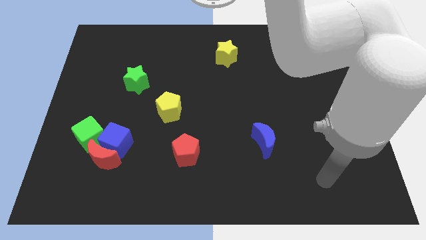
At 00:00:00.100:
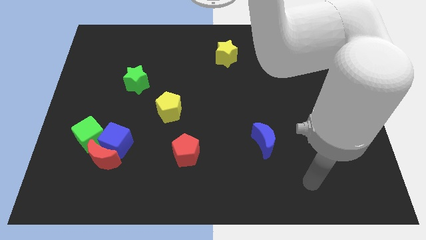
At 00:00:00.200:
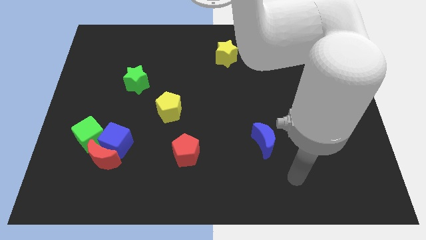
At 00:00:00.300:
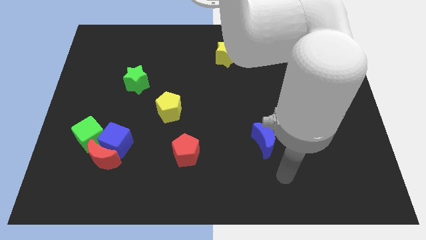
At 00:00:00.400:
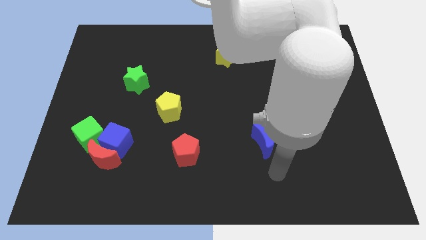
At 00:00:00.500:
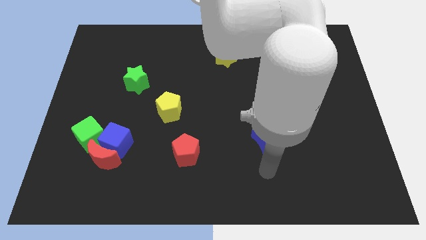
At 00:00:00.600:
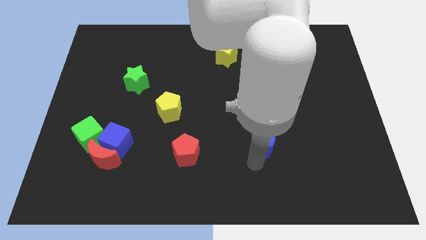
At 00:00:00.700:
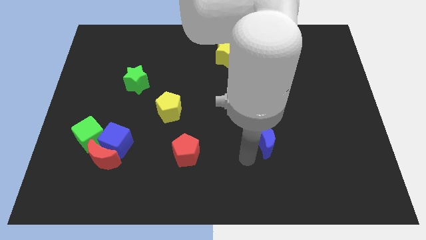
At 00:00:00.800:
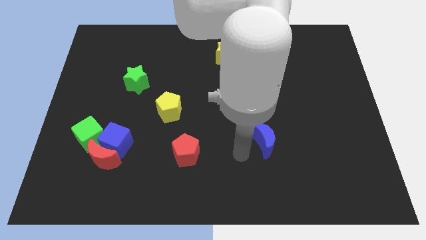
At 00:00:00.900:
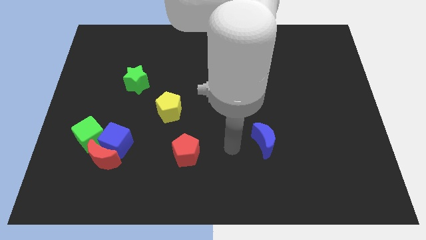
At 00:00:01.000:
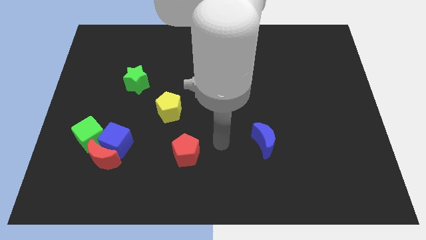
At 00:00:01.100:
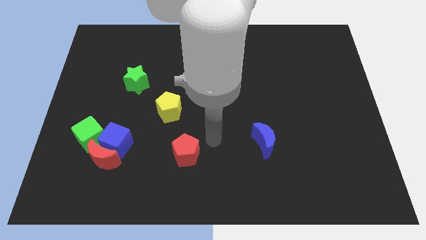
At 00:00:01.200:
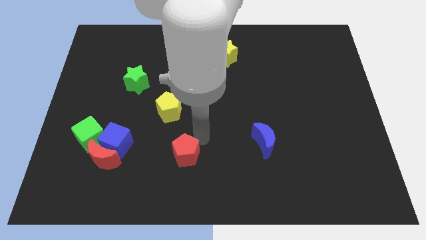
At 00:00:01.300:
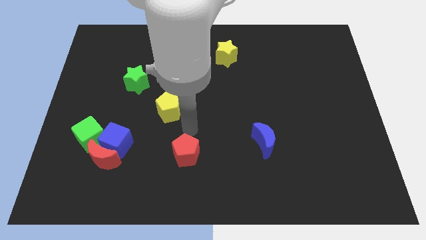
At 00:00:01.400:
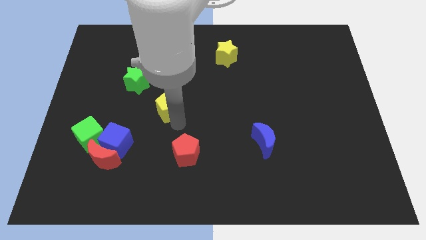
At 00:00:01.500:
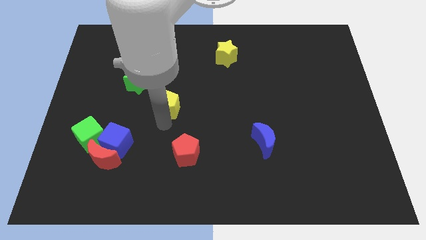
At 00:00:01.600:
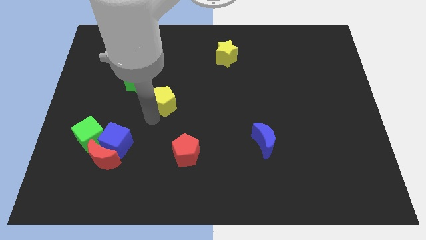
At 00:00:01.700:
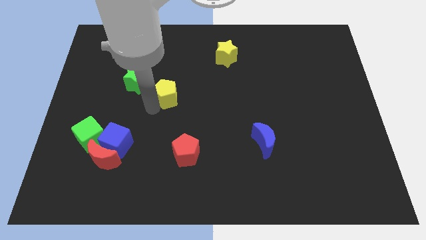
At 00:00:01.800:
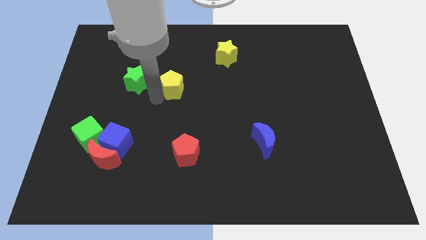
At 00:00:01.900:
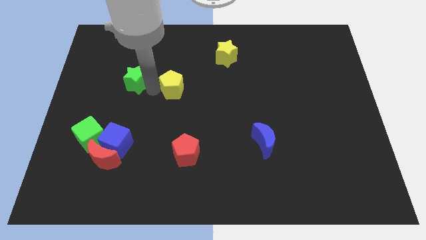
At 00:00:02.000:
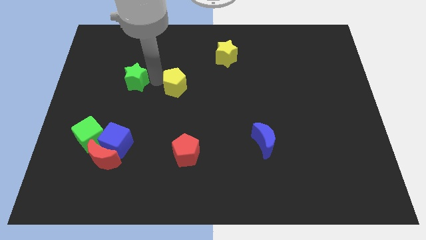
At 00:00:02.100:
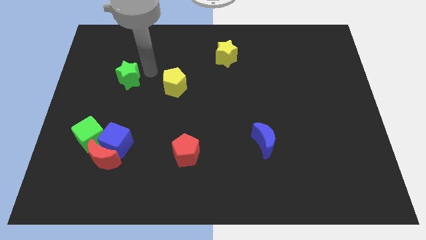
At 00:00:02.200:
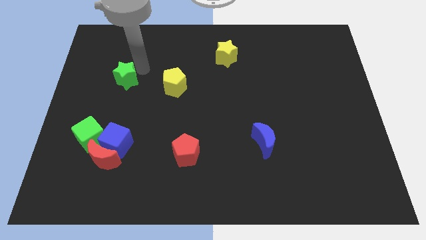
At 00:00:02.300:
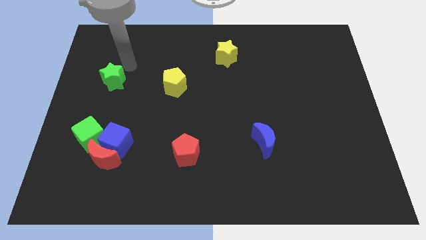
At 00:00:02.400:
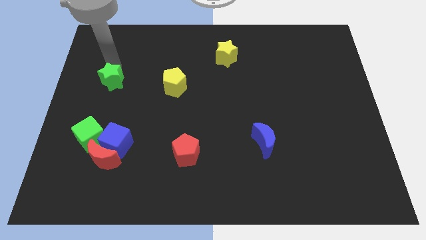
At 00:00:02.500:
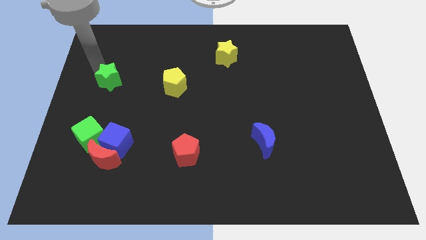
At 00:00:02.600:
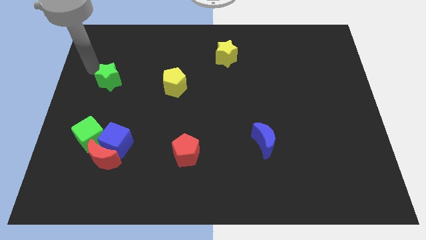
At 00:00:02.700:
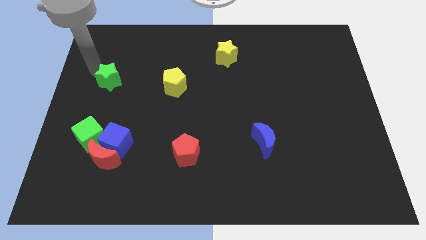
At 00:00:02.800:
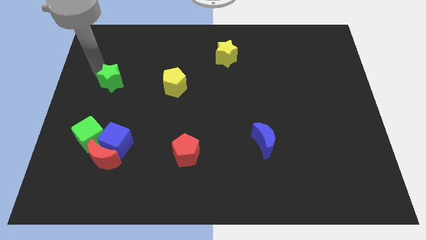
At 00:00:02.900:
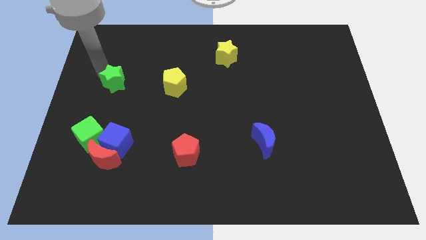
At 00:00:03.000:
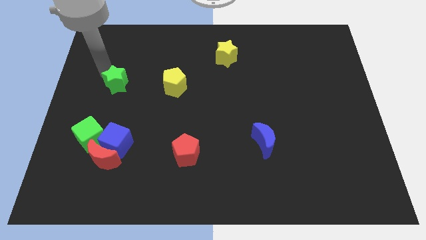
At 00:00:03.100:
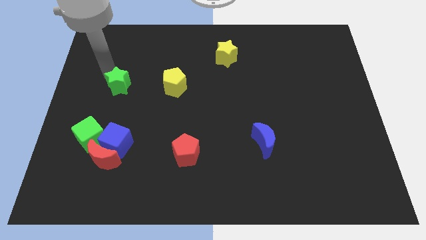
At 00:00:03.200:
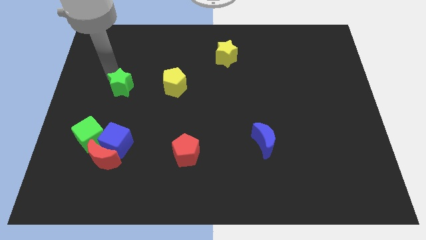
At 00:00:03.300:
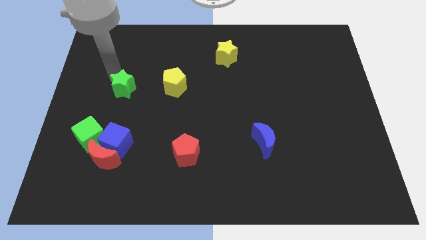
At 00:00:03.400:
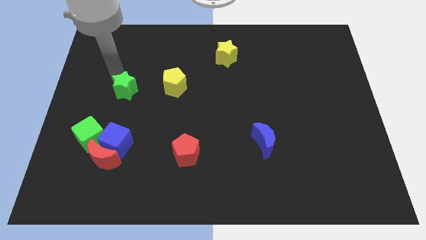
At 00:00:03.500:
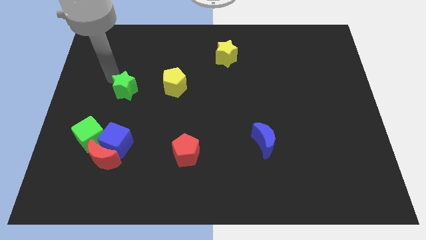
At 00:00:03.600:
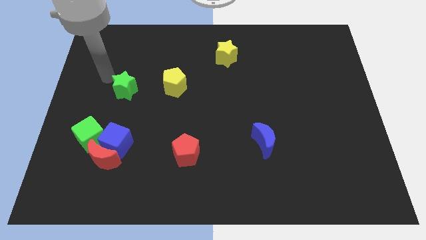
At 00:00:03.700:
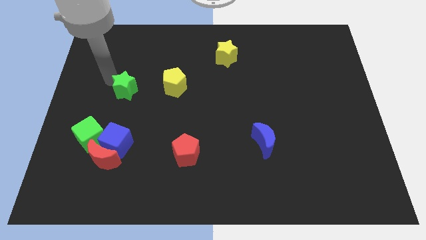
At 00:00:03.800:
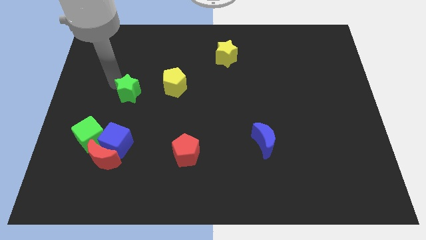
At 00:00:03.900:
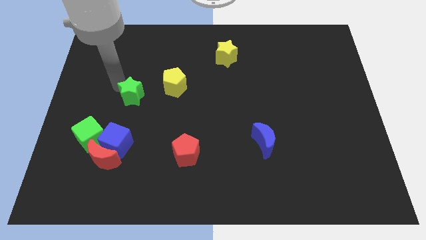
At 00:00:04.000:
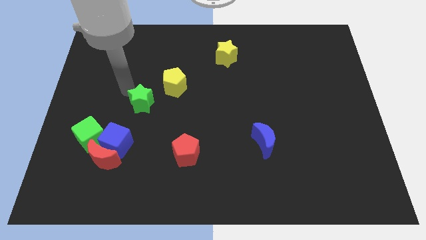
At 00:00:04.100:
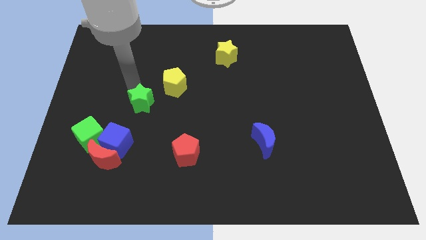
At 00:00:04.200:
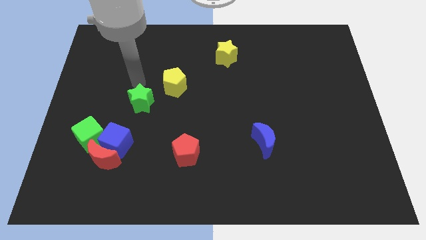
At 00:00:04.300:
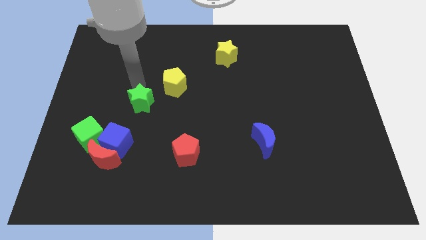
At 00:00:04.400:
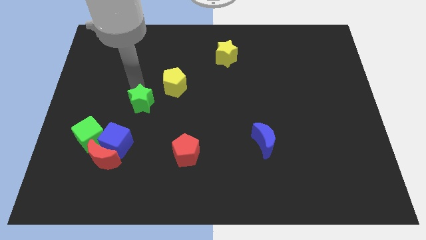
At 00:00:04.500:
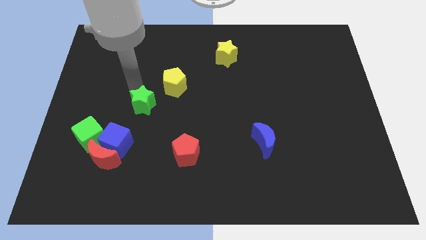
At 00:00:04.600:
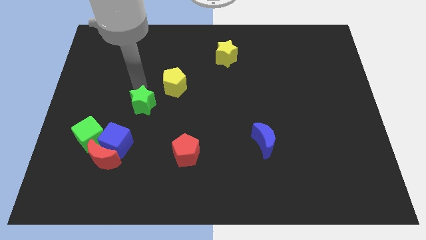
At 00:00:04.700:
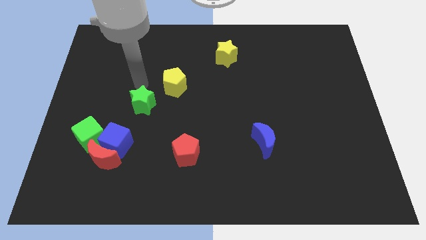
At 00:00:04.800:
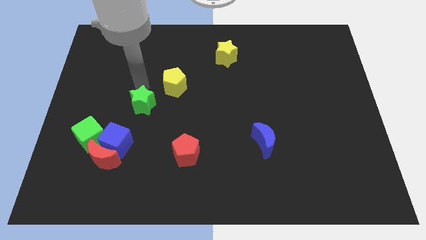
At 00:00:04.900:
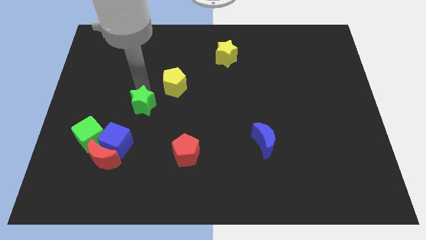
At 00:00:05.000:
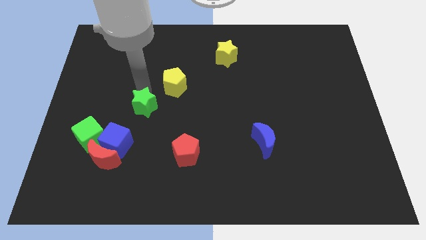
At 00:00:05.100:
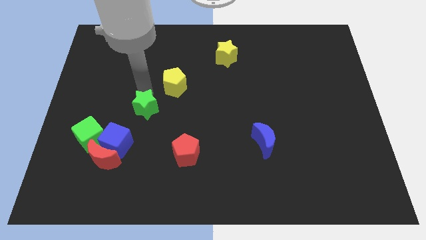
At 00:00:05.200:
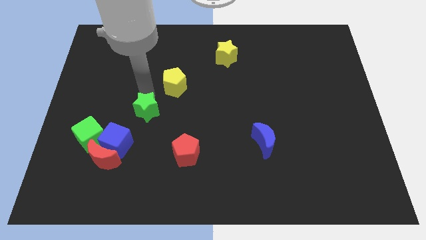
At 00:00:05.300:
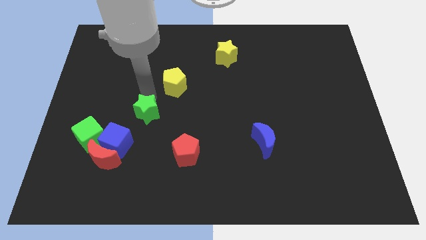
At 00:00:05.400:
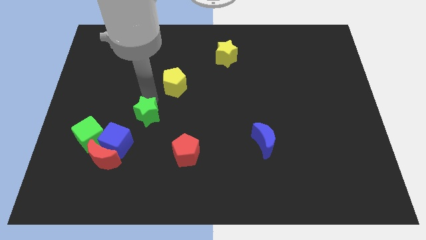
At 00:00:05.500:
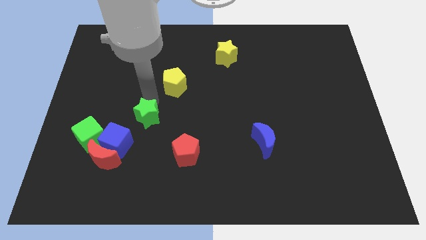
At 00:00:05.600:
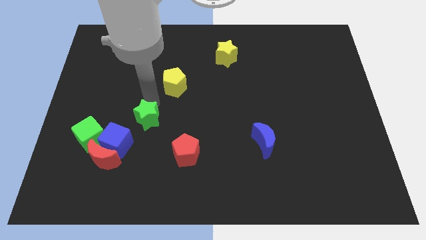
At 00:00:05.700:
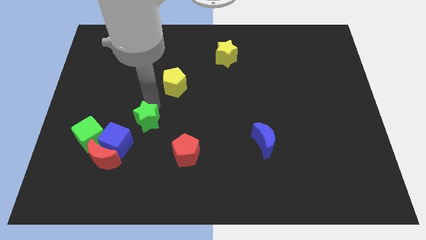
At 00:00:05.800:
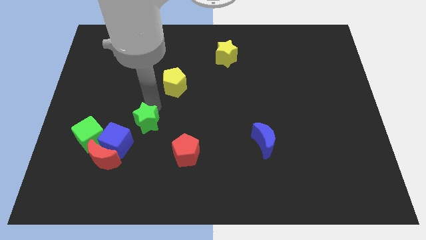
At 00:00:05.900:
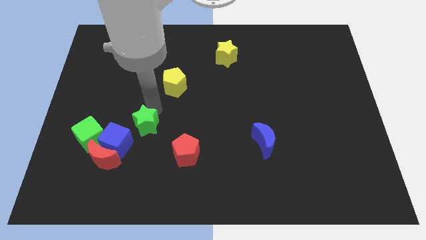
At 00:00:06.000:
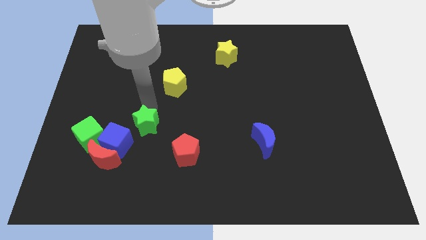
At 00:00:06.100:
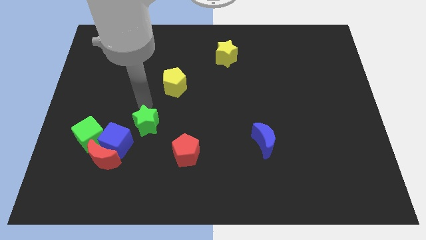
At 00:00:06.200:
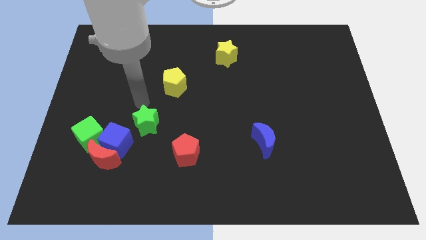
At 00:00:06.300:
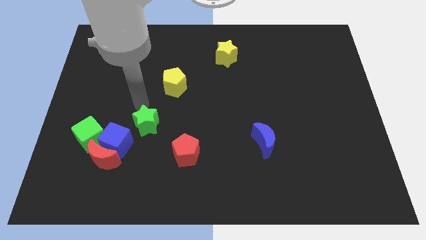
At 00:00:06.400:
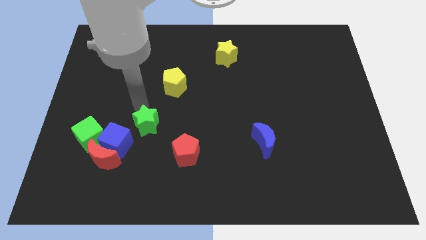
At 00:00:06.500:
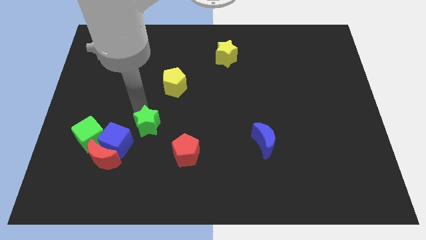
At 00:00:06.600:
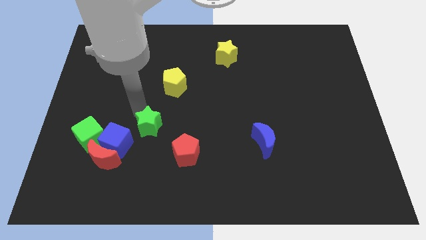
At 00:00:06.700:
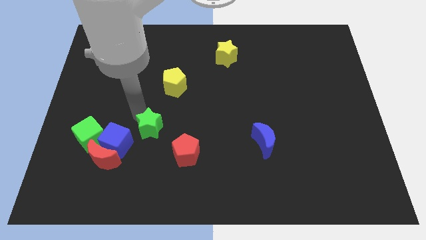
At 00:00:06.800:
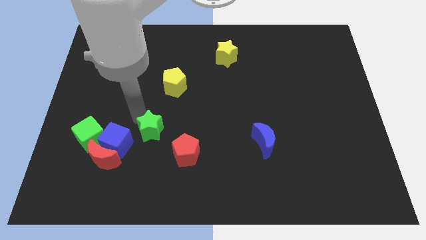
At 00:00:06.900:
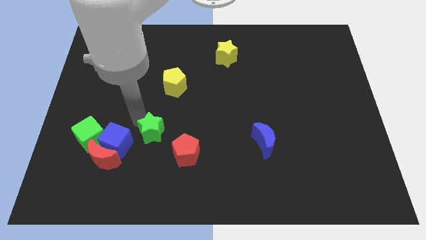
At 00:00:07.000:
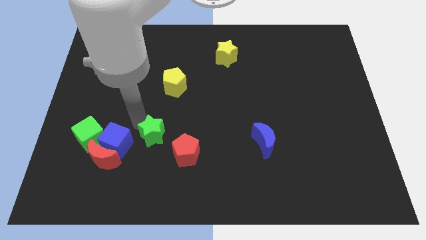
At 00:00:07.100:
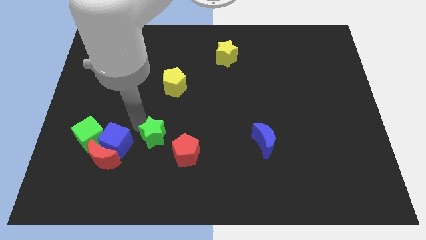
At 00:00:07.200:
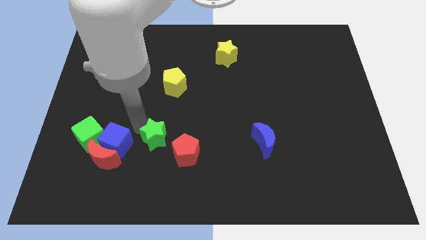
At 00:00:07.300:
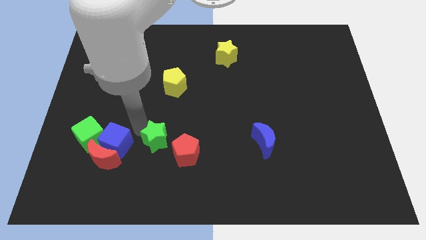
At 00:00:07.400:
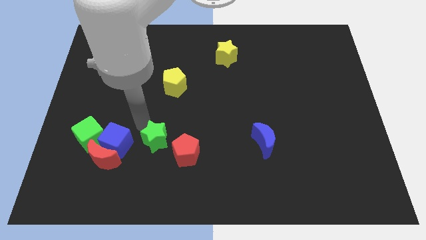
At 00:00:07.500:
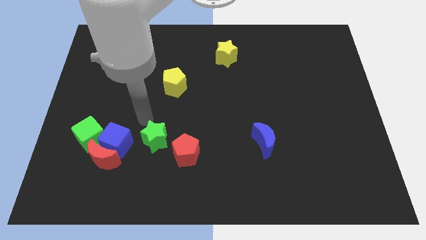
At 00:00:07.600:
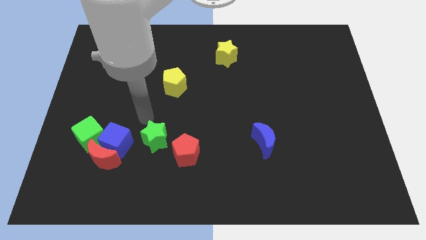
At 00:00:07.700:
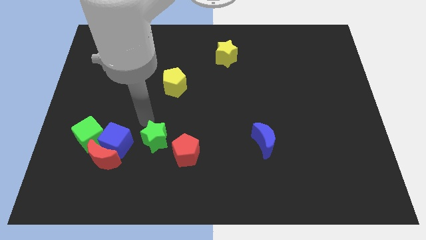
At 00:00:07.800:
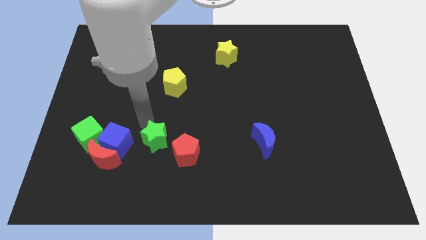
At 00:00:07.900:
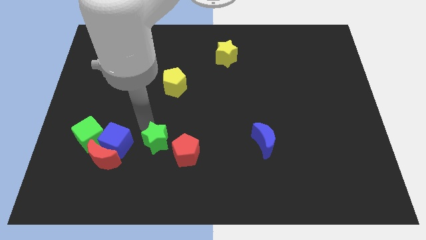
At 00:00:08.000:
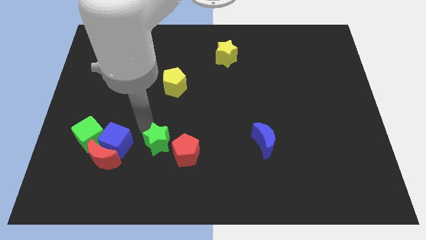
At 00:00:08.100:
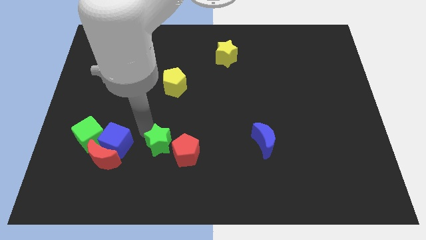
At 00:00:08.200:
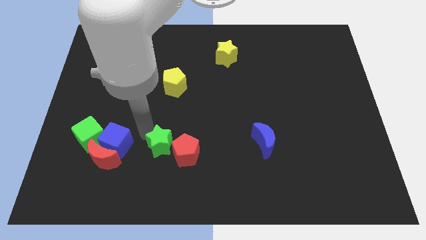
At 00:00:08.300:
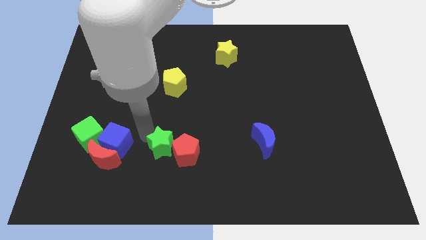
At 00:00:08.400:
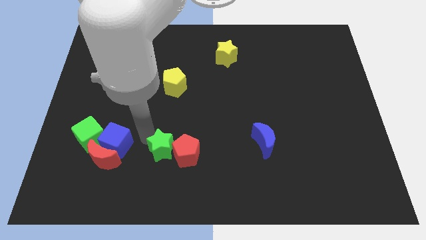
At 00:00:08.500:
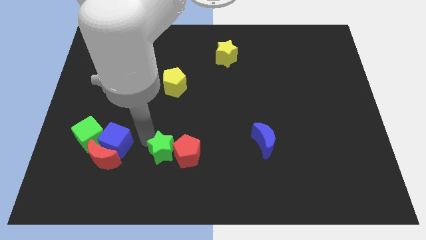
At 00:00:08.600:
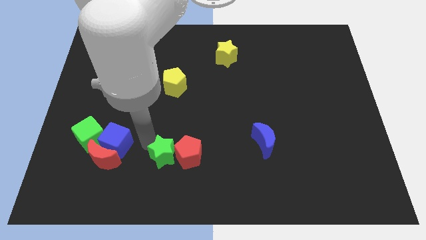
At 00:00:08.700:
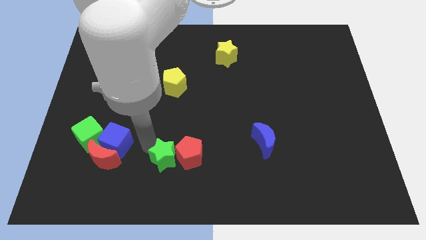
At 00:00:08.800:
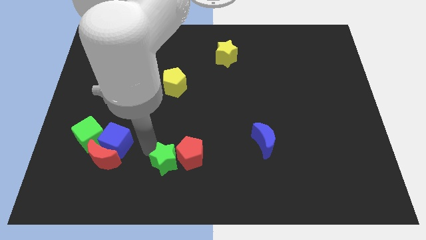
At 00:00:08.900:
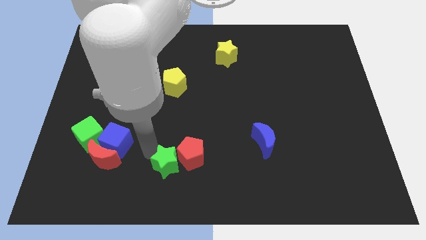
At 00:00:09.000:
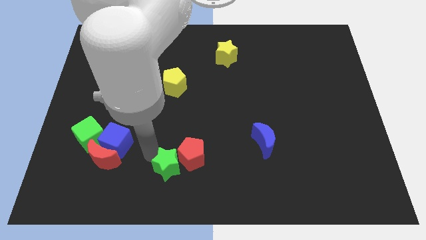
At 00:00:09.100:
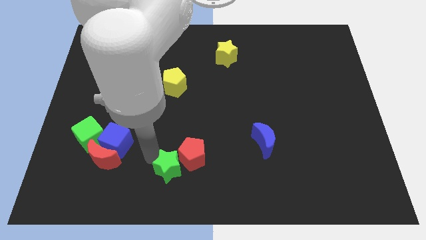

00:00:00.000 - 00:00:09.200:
put the green star to the bottom side
